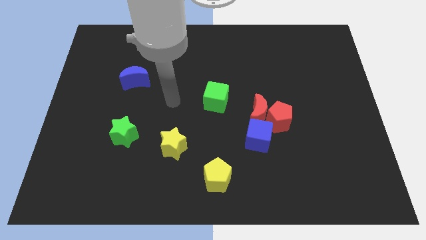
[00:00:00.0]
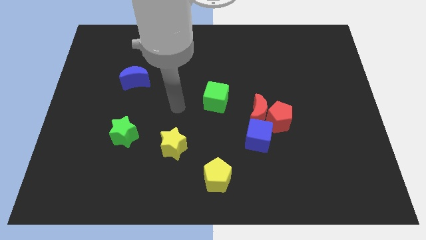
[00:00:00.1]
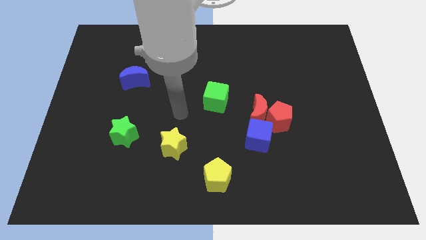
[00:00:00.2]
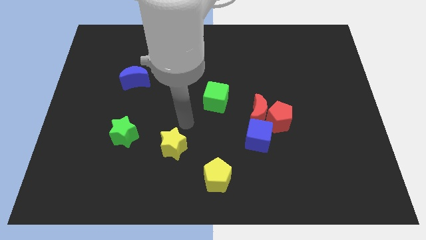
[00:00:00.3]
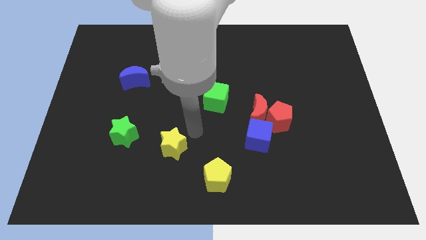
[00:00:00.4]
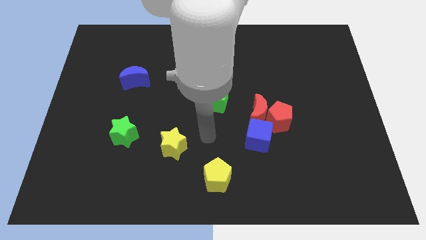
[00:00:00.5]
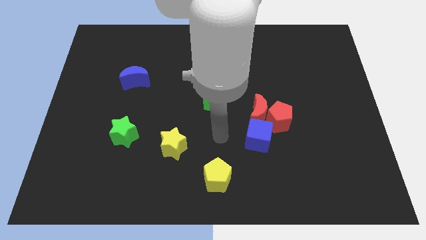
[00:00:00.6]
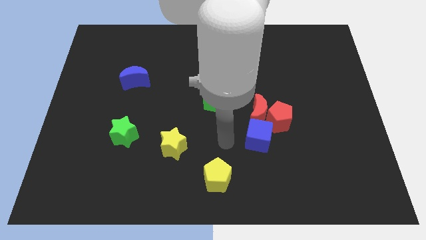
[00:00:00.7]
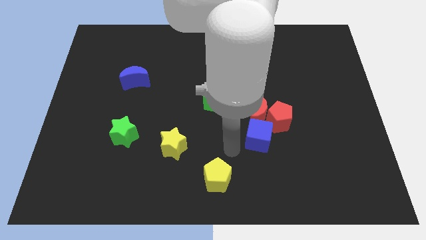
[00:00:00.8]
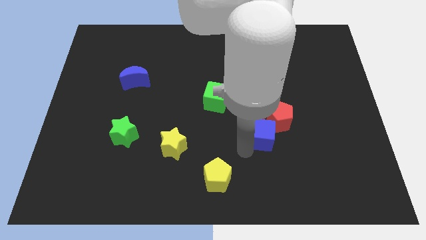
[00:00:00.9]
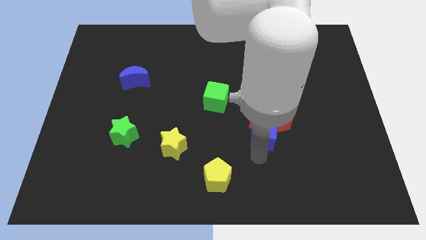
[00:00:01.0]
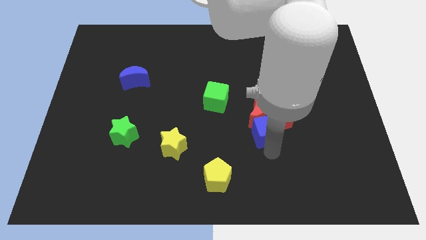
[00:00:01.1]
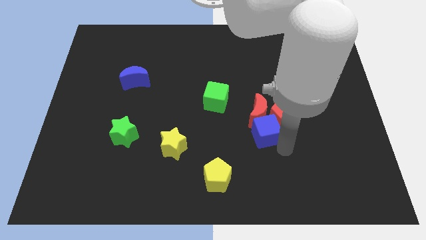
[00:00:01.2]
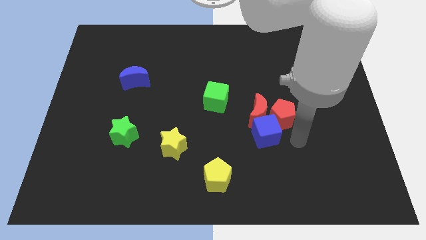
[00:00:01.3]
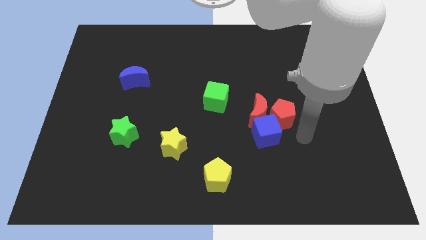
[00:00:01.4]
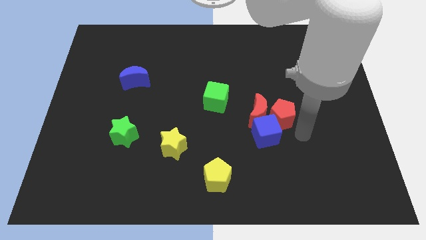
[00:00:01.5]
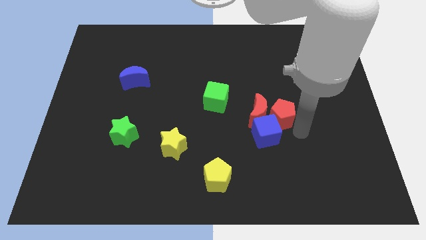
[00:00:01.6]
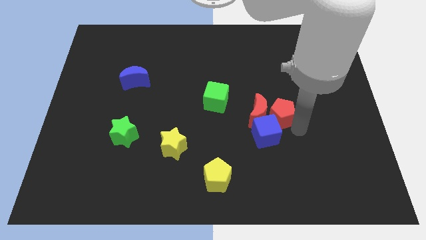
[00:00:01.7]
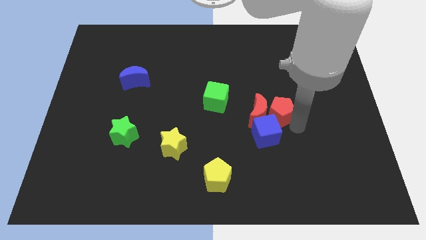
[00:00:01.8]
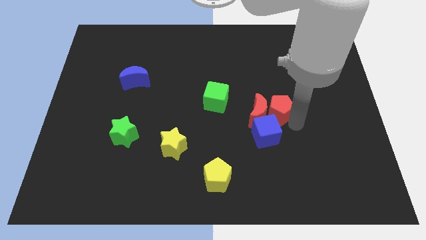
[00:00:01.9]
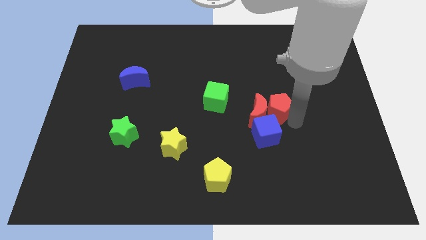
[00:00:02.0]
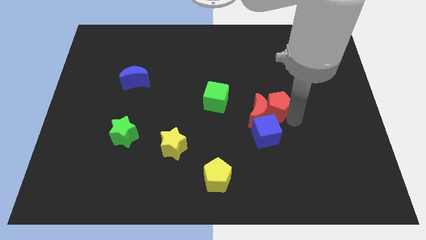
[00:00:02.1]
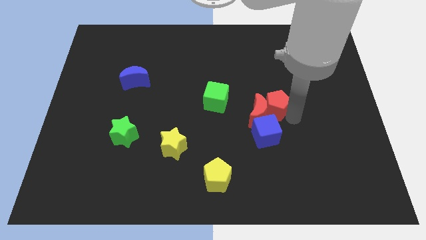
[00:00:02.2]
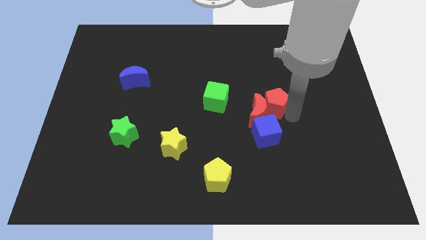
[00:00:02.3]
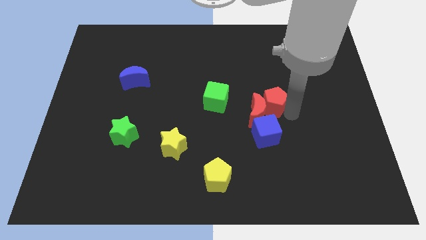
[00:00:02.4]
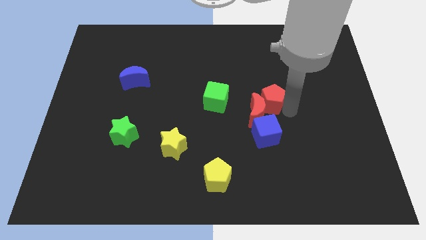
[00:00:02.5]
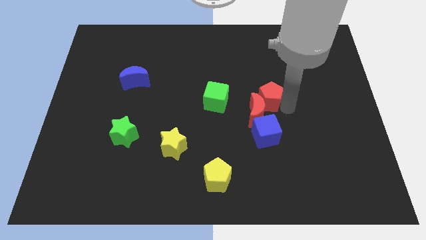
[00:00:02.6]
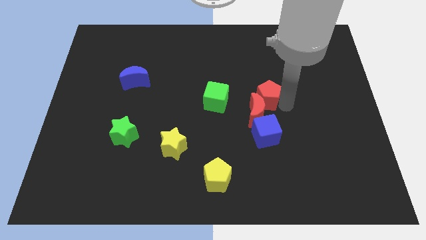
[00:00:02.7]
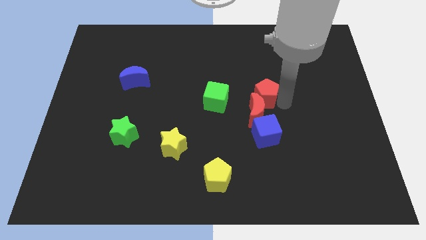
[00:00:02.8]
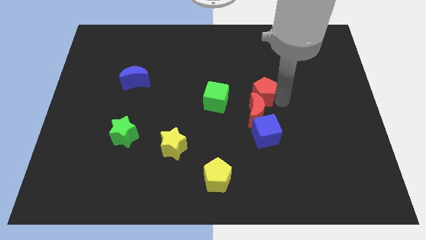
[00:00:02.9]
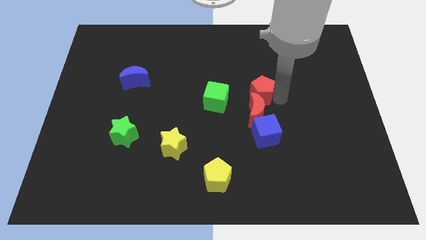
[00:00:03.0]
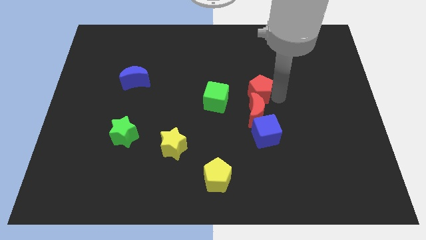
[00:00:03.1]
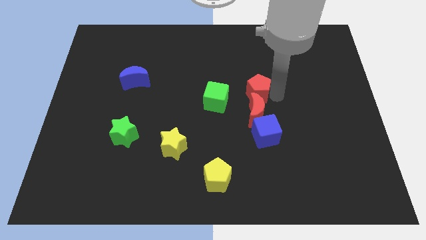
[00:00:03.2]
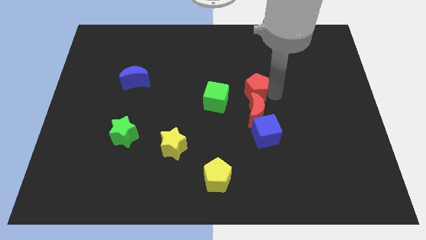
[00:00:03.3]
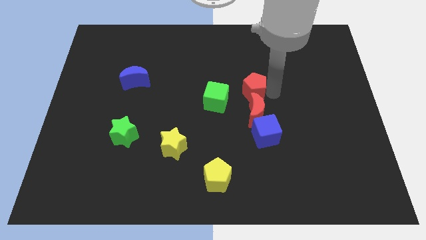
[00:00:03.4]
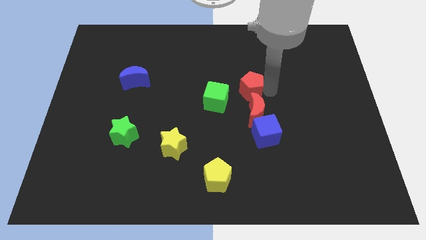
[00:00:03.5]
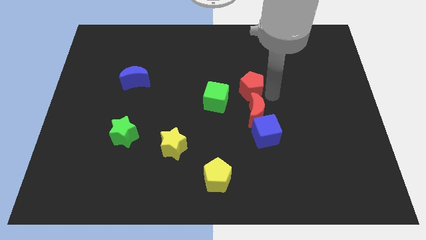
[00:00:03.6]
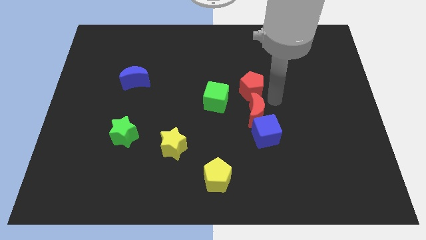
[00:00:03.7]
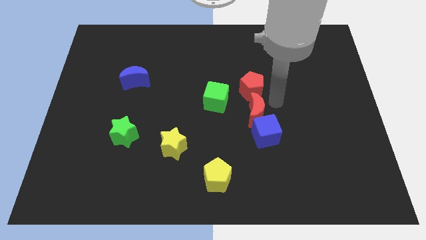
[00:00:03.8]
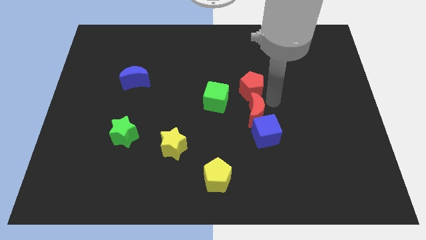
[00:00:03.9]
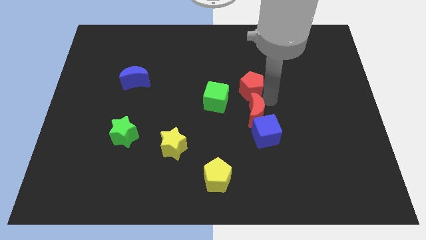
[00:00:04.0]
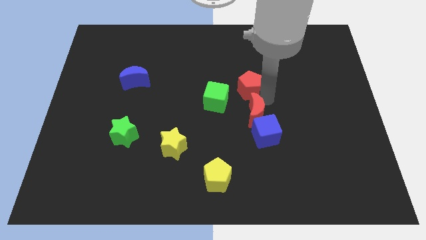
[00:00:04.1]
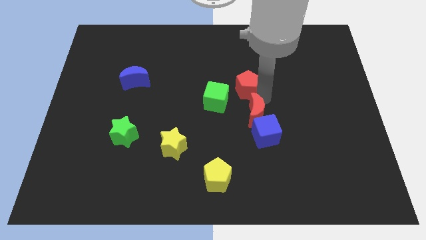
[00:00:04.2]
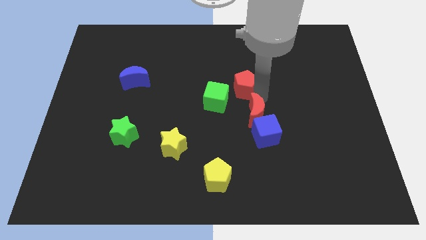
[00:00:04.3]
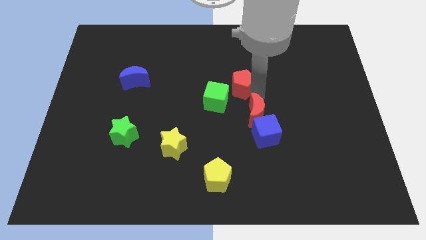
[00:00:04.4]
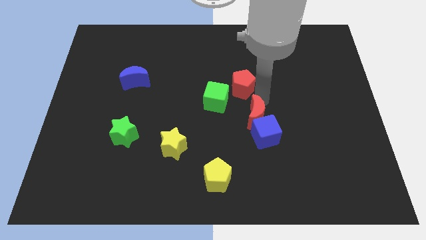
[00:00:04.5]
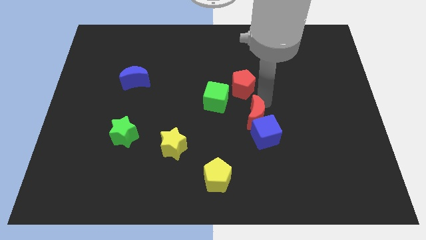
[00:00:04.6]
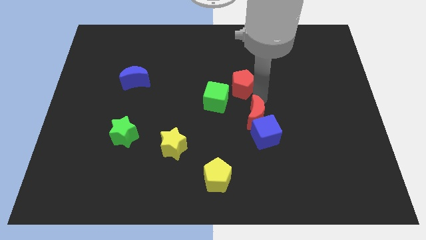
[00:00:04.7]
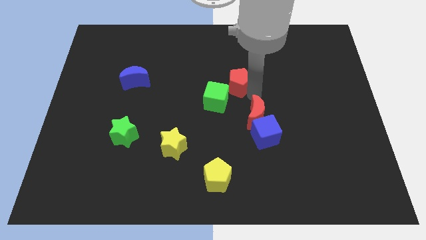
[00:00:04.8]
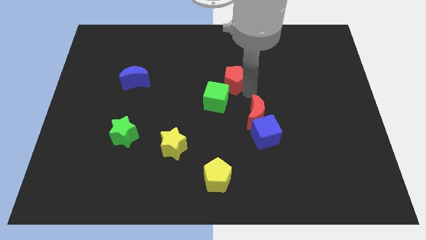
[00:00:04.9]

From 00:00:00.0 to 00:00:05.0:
move the red pentagon above the green cube

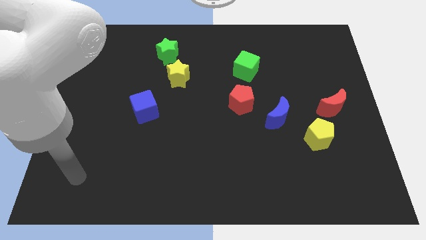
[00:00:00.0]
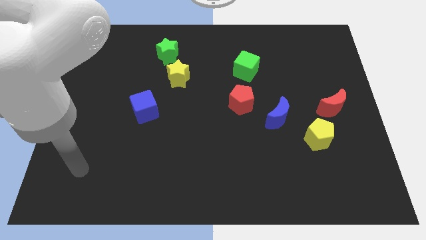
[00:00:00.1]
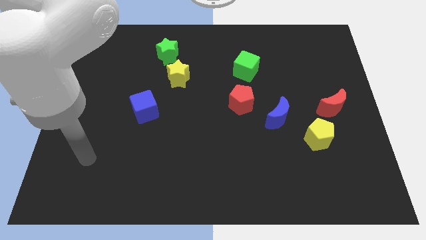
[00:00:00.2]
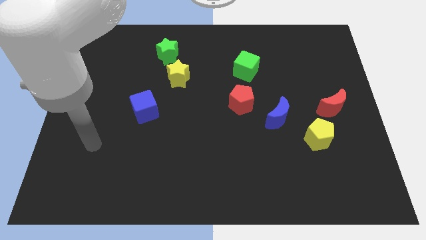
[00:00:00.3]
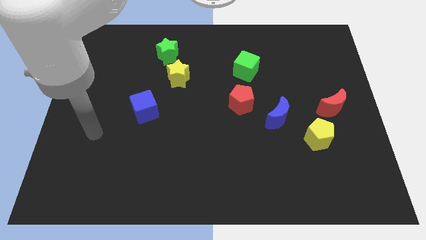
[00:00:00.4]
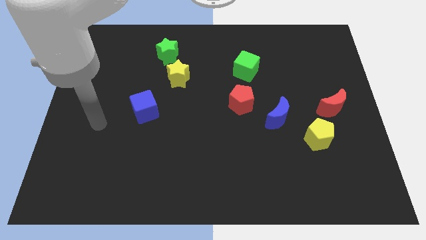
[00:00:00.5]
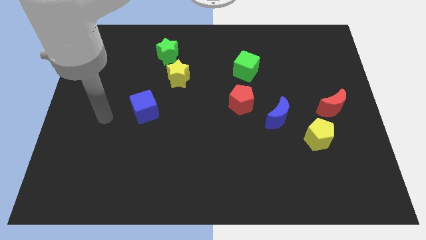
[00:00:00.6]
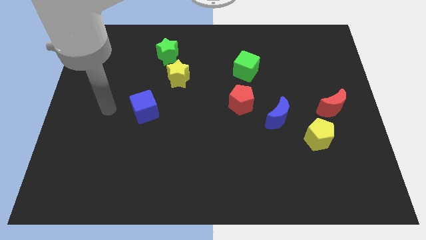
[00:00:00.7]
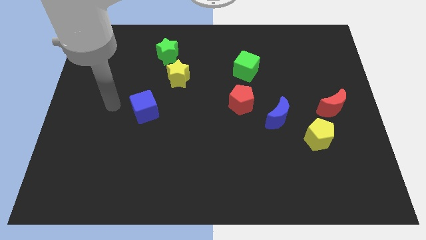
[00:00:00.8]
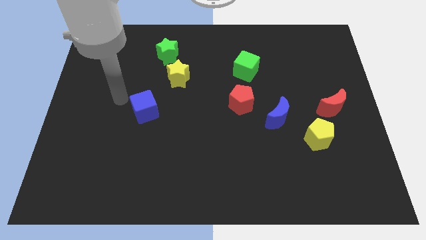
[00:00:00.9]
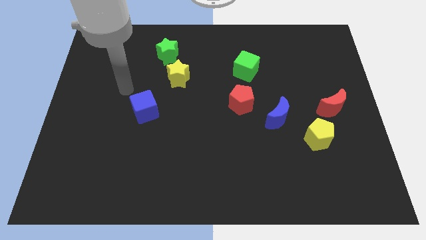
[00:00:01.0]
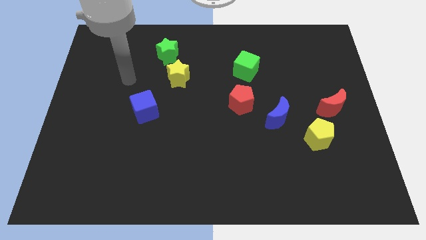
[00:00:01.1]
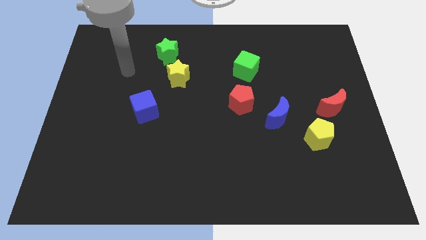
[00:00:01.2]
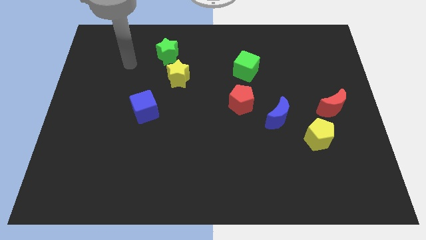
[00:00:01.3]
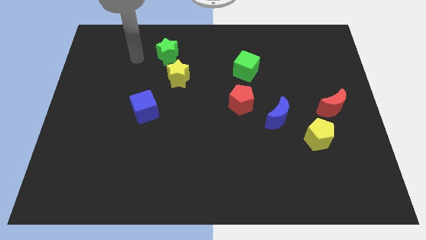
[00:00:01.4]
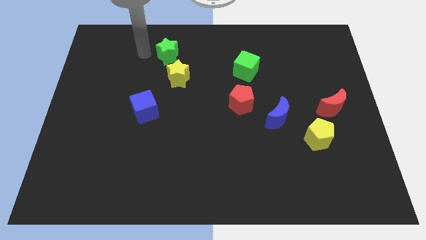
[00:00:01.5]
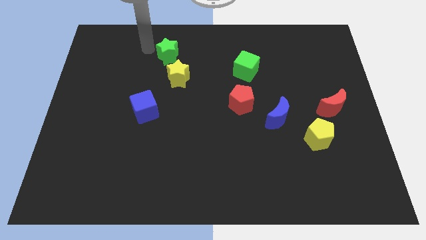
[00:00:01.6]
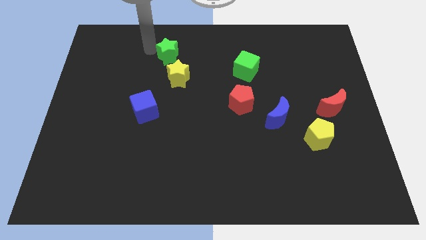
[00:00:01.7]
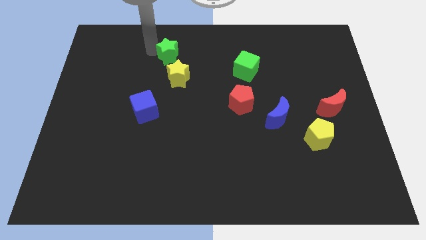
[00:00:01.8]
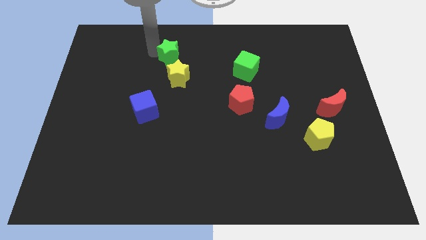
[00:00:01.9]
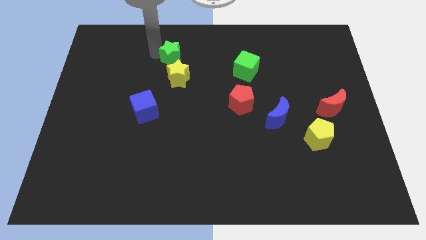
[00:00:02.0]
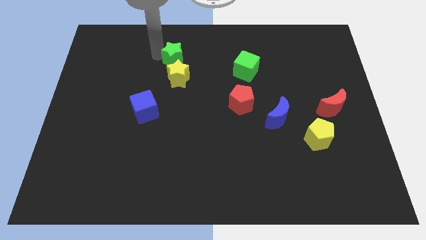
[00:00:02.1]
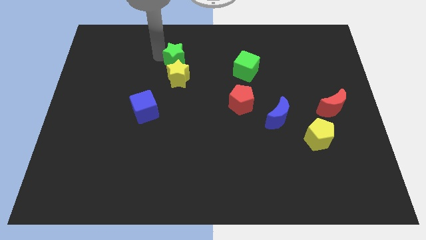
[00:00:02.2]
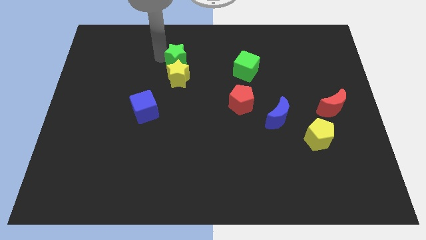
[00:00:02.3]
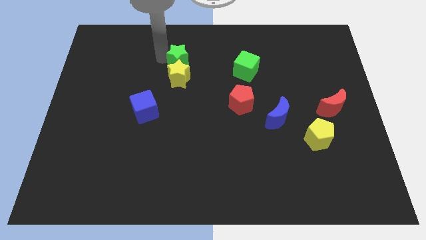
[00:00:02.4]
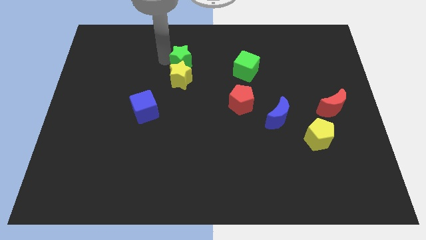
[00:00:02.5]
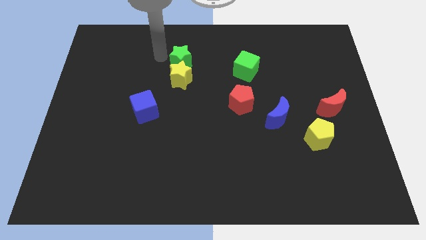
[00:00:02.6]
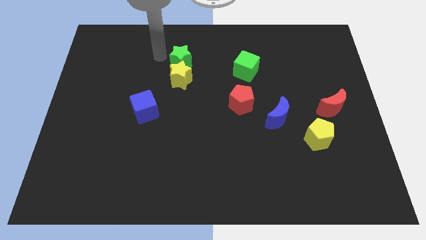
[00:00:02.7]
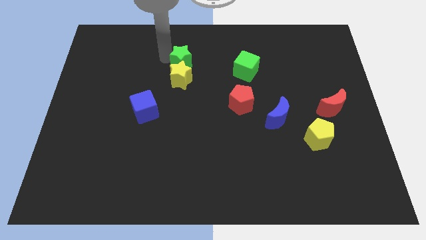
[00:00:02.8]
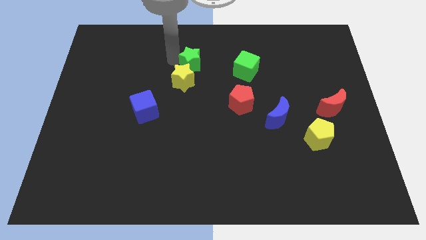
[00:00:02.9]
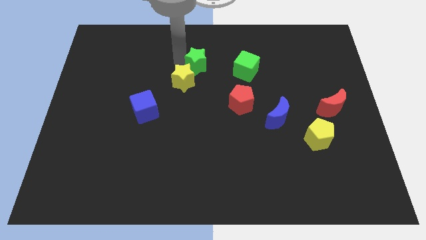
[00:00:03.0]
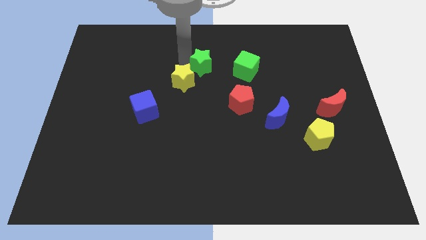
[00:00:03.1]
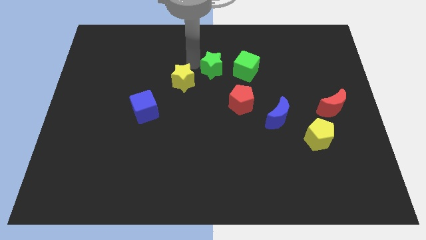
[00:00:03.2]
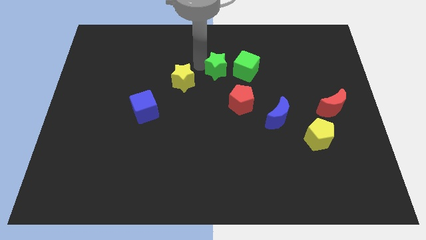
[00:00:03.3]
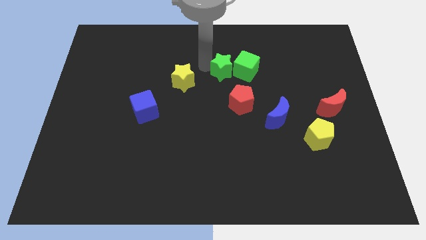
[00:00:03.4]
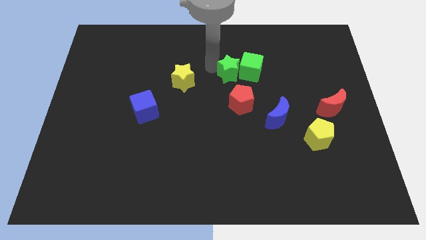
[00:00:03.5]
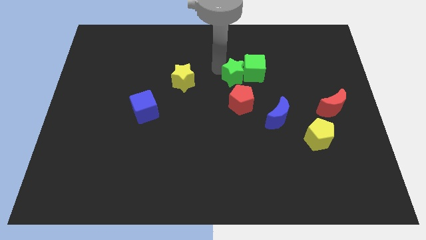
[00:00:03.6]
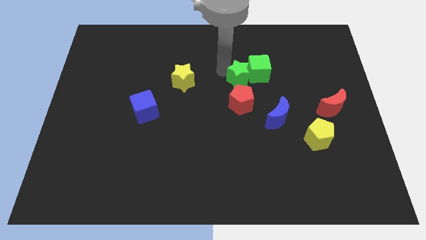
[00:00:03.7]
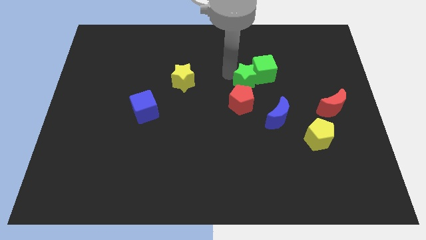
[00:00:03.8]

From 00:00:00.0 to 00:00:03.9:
move the green star diagonally up and to the right of the red pentagon
